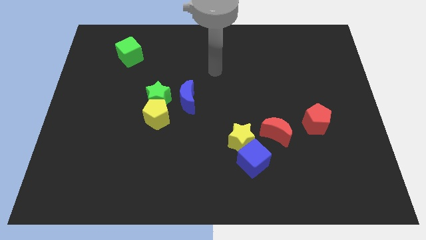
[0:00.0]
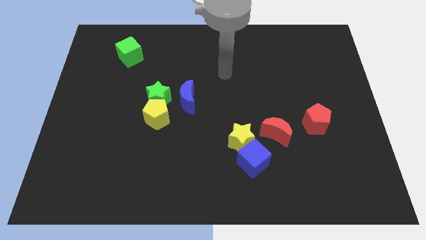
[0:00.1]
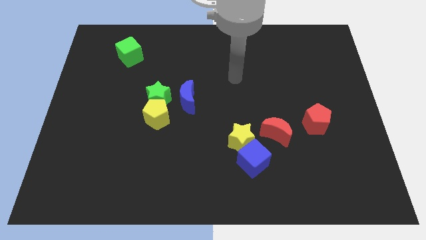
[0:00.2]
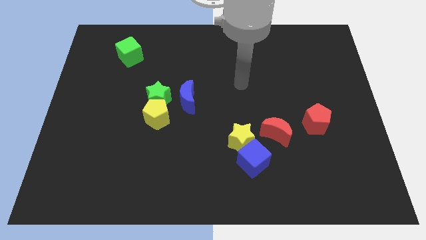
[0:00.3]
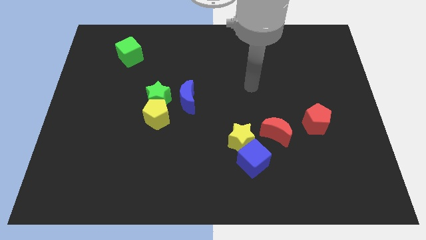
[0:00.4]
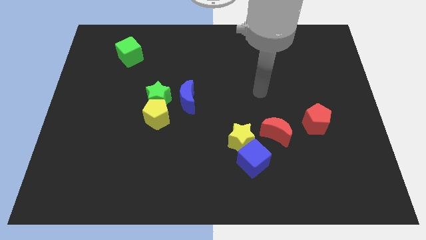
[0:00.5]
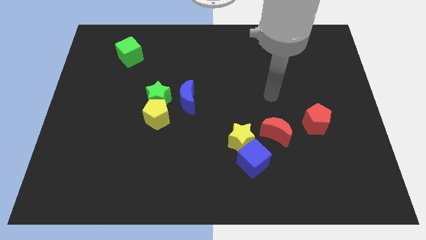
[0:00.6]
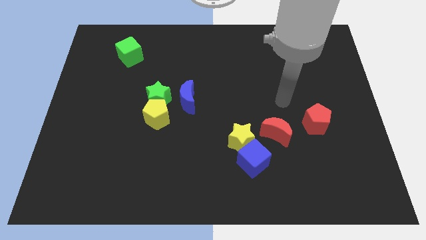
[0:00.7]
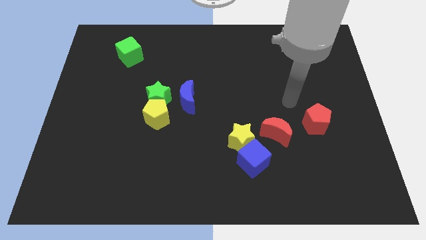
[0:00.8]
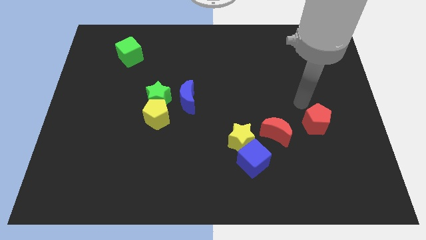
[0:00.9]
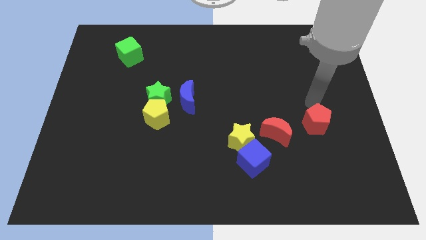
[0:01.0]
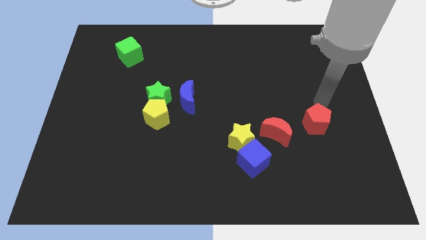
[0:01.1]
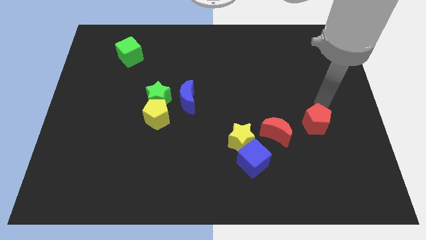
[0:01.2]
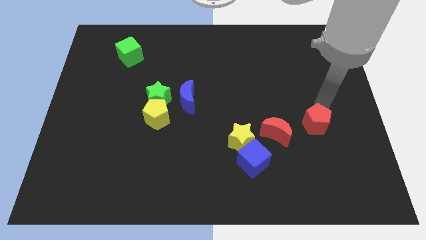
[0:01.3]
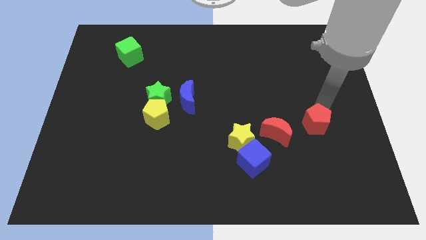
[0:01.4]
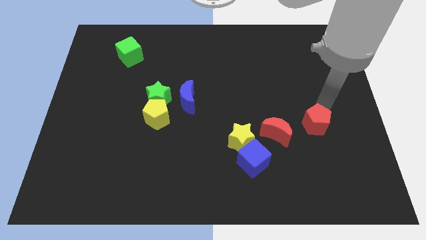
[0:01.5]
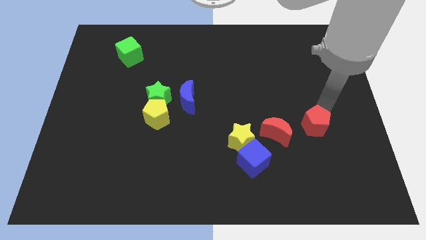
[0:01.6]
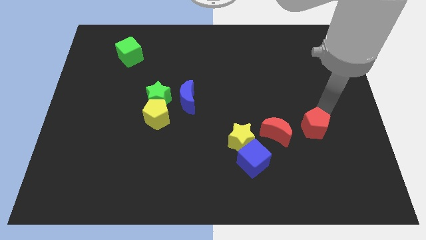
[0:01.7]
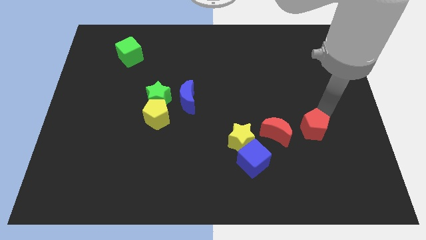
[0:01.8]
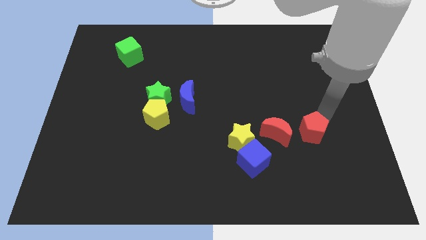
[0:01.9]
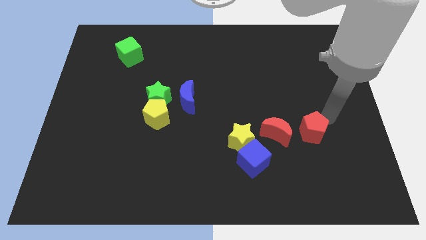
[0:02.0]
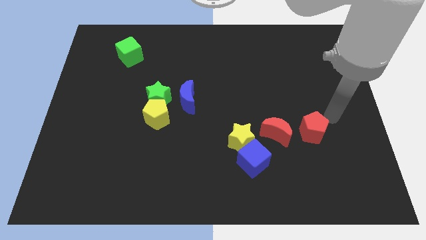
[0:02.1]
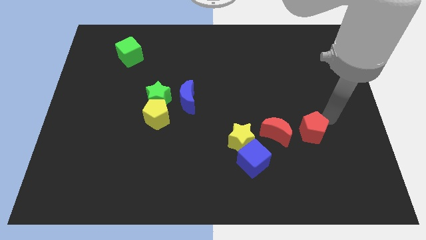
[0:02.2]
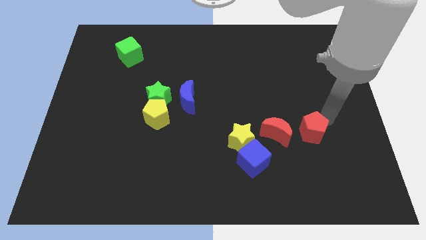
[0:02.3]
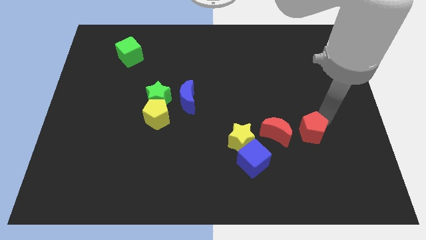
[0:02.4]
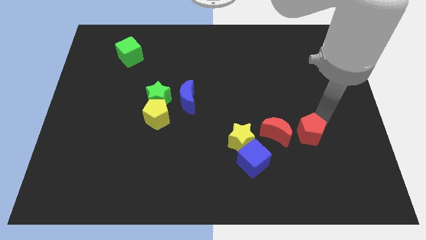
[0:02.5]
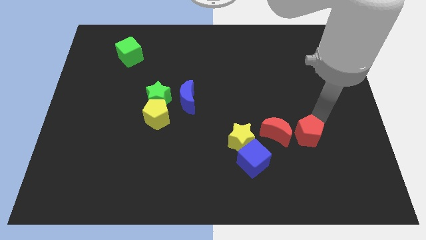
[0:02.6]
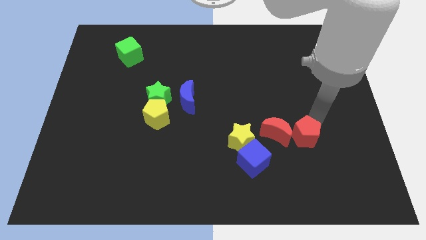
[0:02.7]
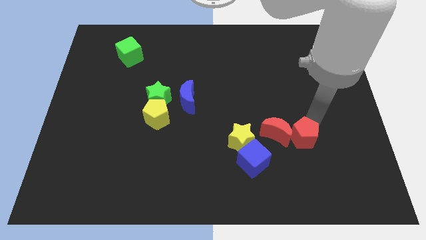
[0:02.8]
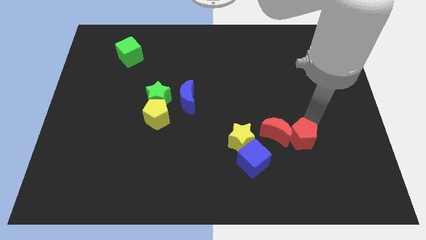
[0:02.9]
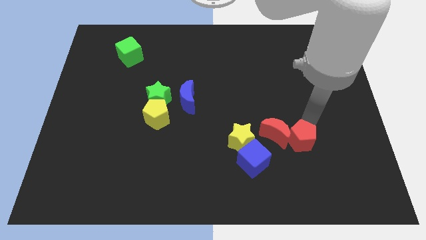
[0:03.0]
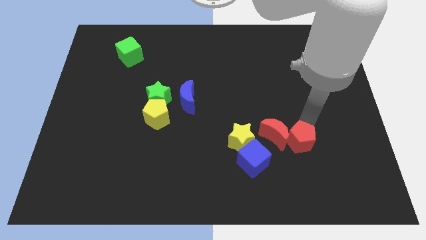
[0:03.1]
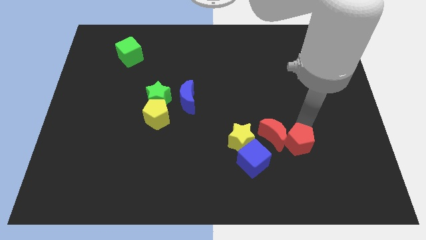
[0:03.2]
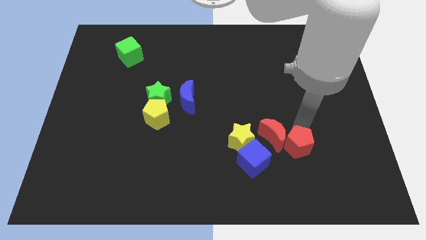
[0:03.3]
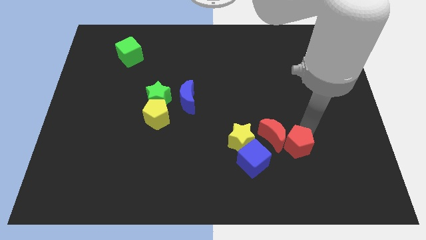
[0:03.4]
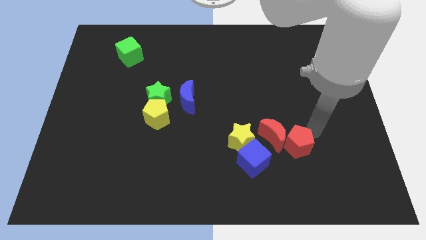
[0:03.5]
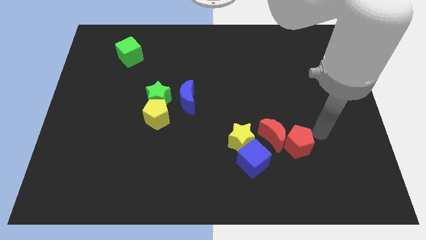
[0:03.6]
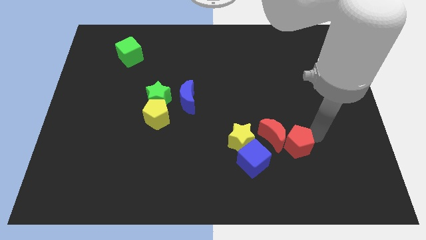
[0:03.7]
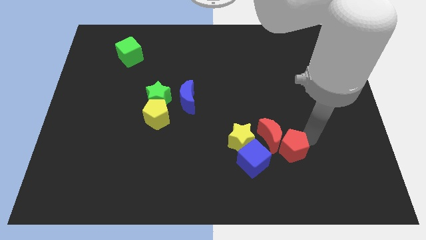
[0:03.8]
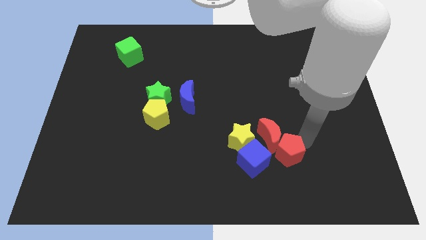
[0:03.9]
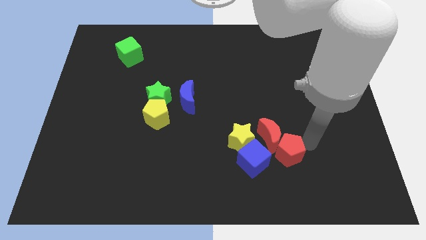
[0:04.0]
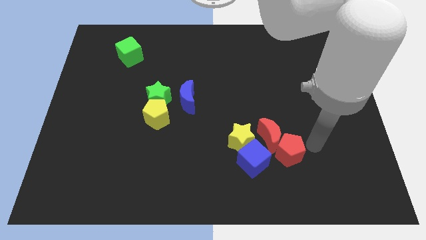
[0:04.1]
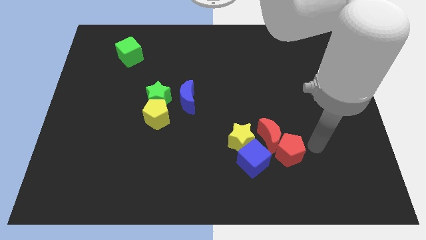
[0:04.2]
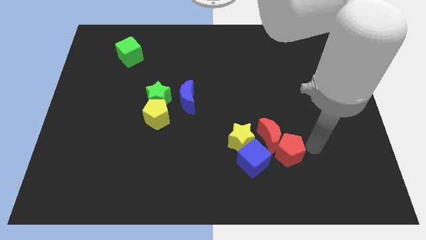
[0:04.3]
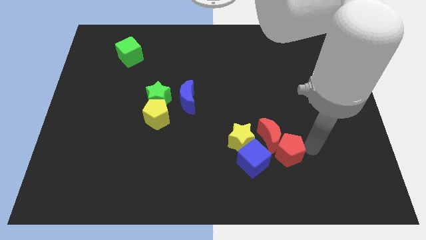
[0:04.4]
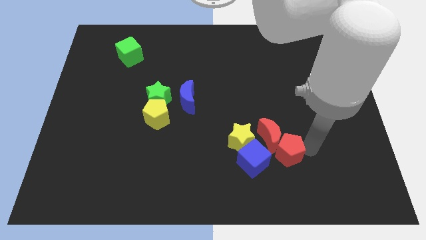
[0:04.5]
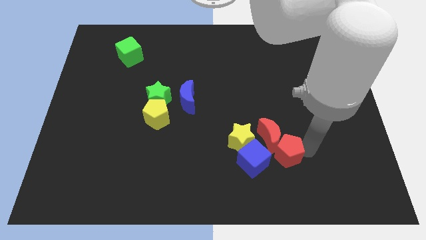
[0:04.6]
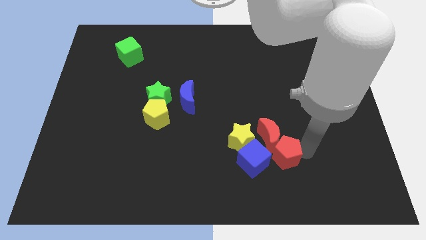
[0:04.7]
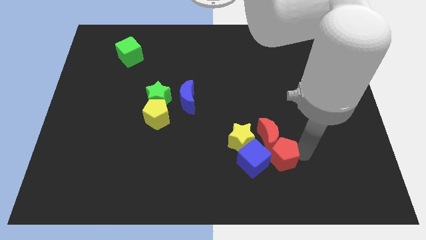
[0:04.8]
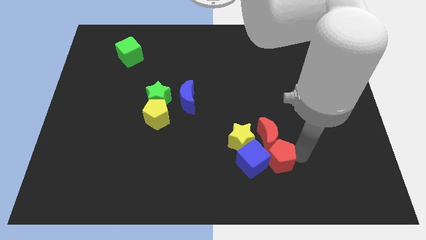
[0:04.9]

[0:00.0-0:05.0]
push the red pentagon next to the blue cube
